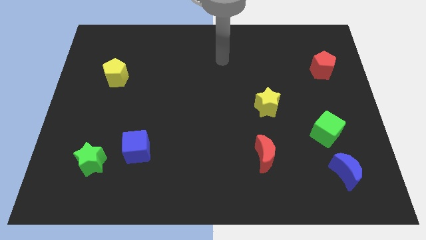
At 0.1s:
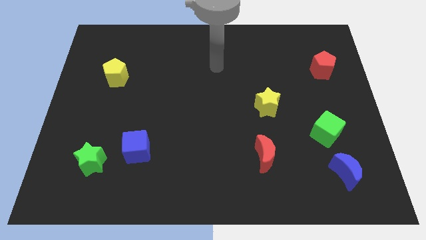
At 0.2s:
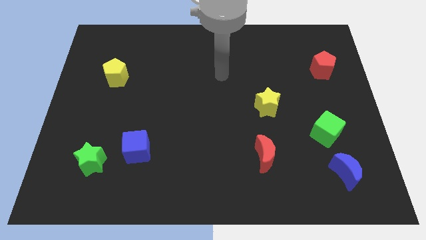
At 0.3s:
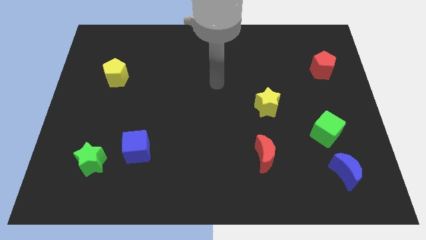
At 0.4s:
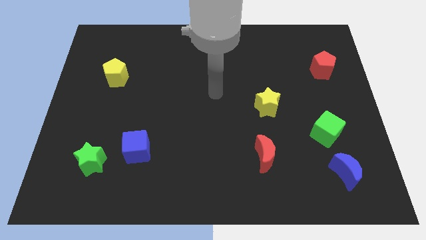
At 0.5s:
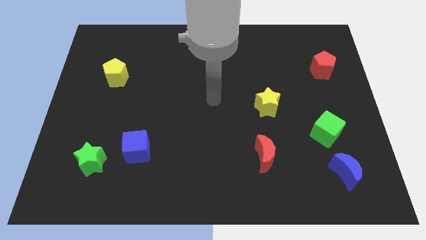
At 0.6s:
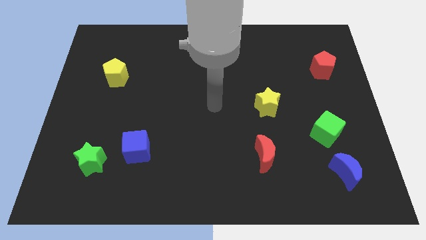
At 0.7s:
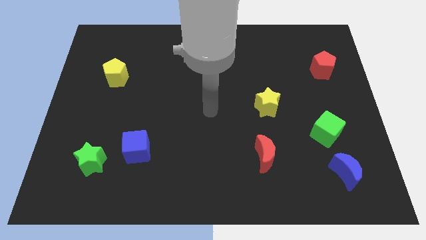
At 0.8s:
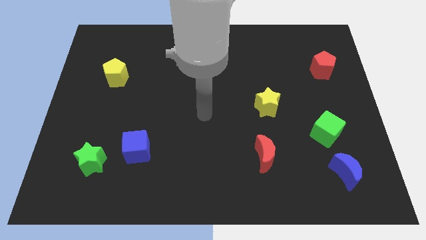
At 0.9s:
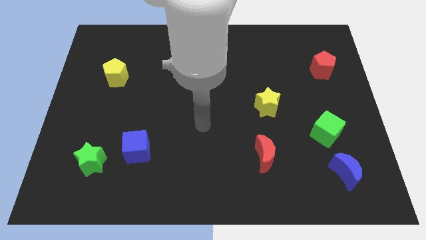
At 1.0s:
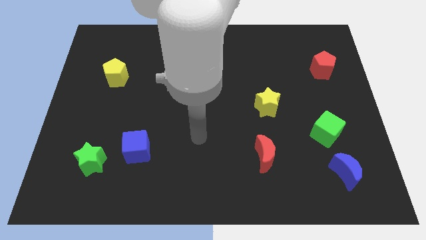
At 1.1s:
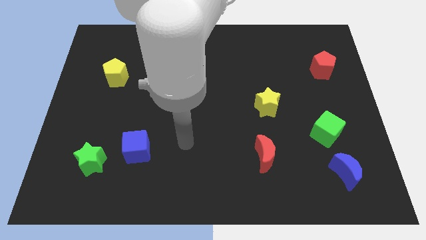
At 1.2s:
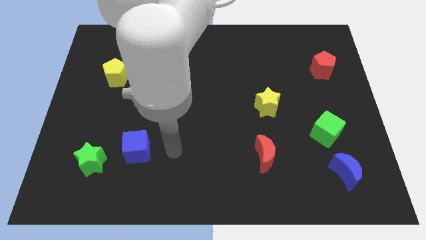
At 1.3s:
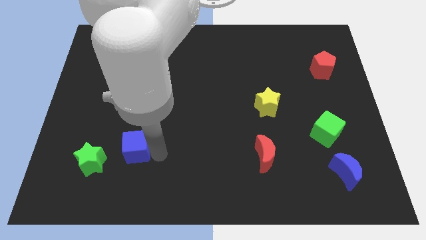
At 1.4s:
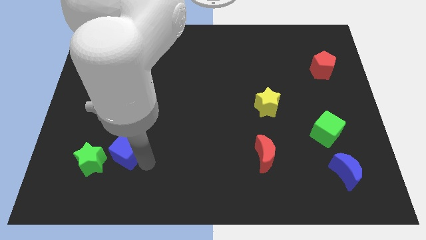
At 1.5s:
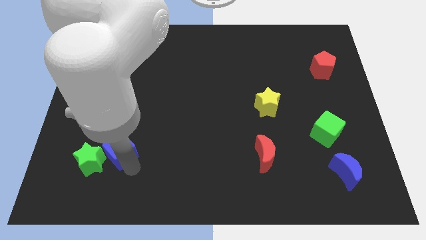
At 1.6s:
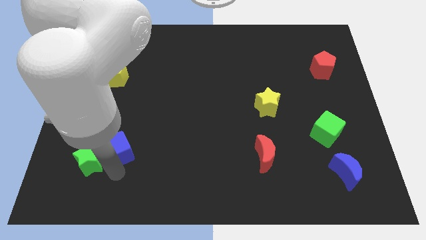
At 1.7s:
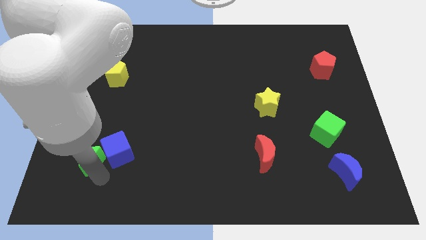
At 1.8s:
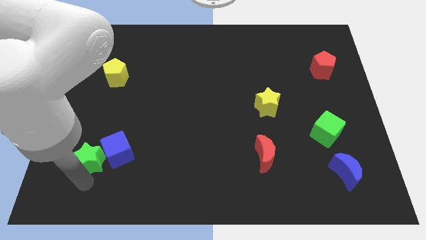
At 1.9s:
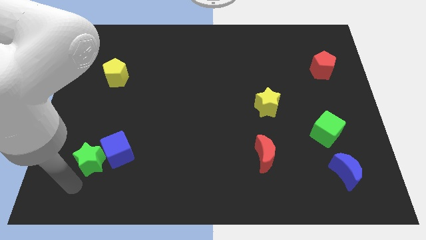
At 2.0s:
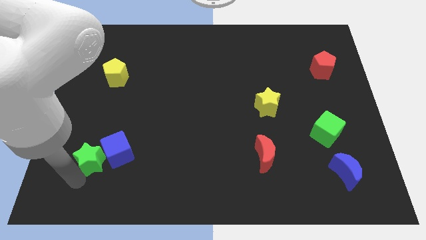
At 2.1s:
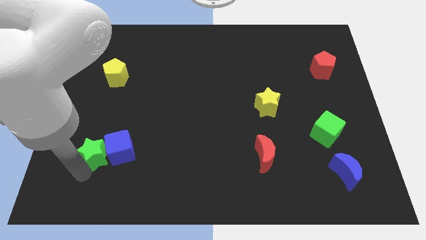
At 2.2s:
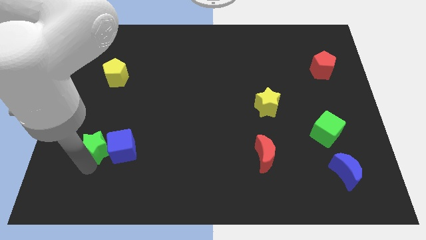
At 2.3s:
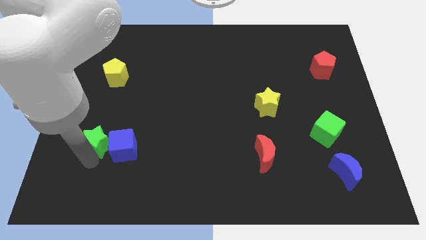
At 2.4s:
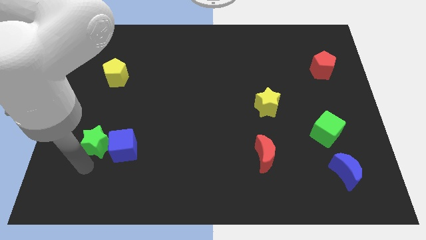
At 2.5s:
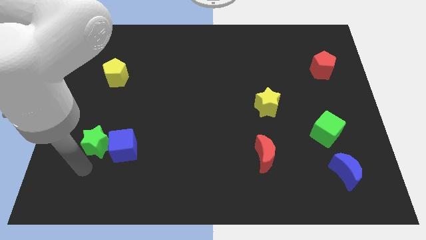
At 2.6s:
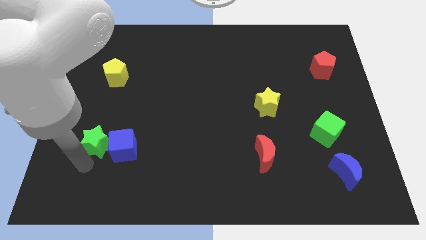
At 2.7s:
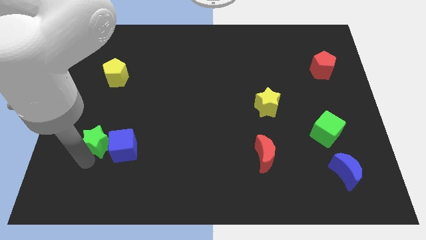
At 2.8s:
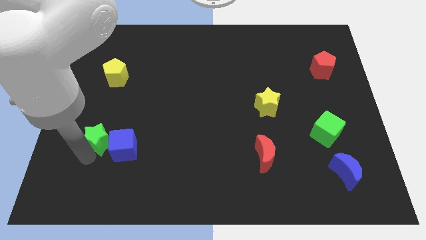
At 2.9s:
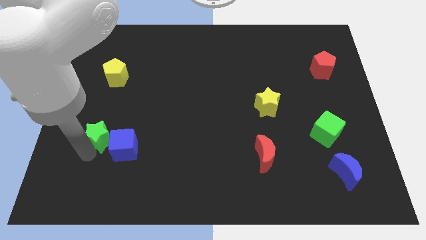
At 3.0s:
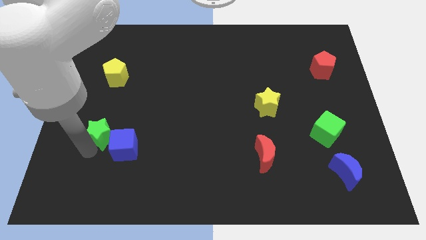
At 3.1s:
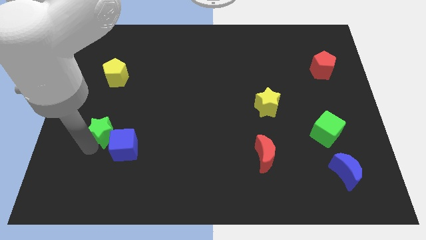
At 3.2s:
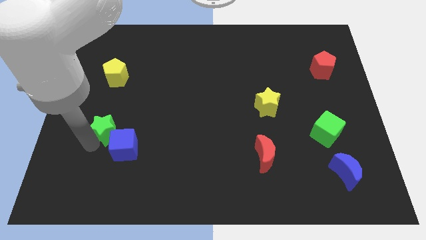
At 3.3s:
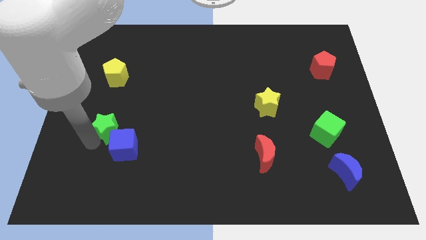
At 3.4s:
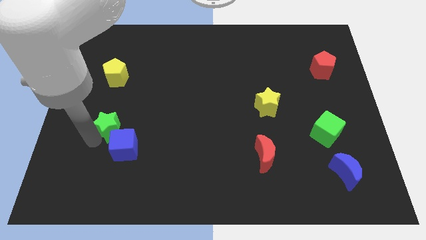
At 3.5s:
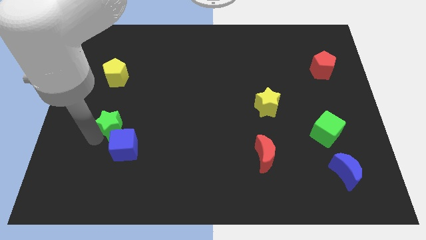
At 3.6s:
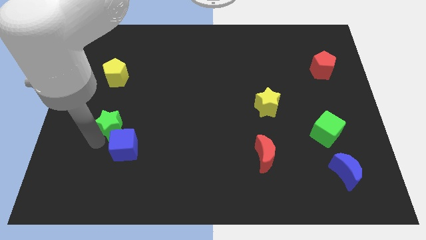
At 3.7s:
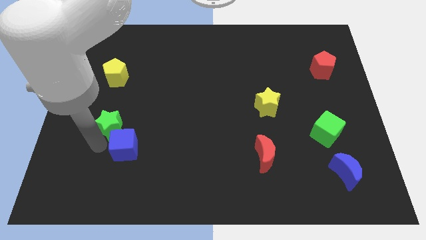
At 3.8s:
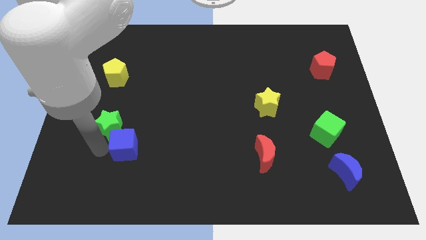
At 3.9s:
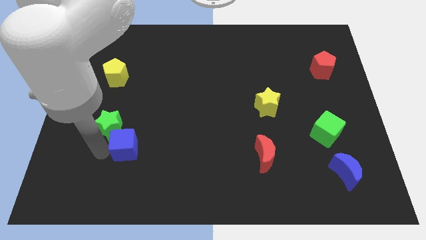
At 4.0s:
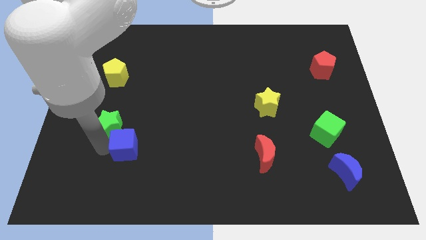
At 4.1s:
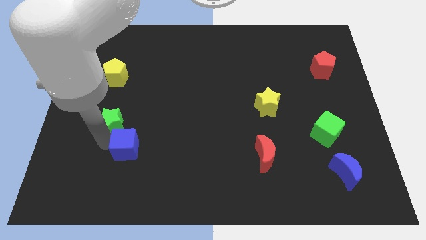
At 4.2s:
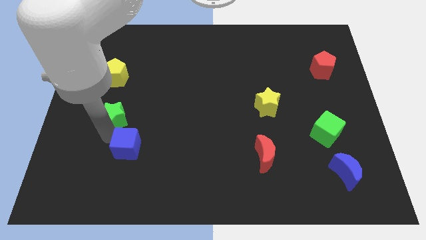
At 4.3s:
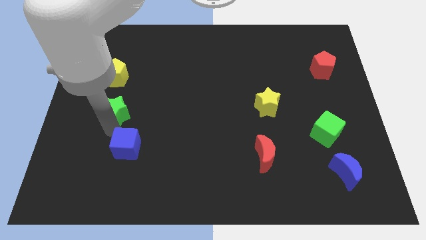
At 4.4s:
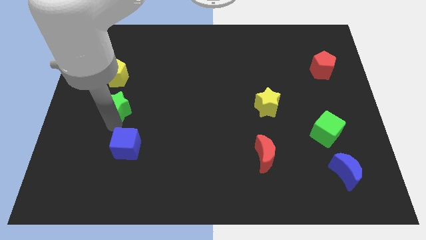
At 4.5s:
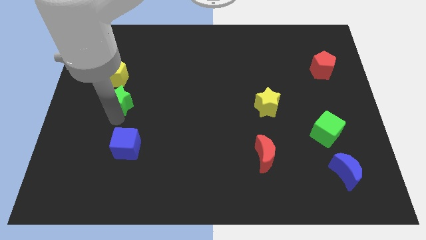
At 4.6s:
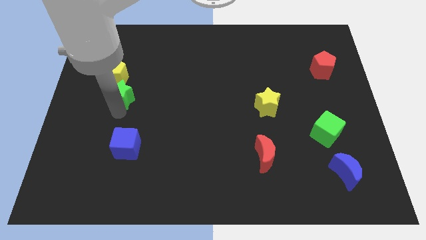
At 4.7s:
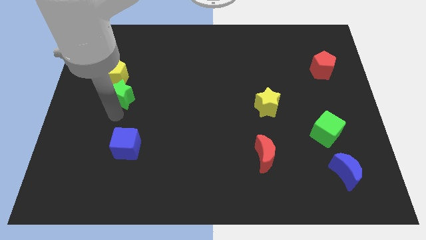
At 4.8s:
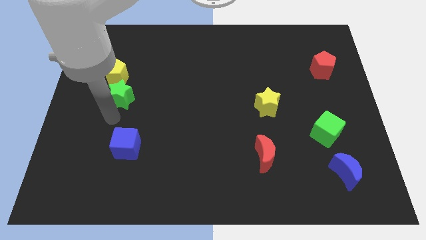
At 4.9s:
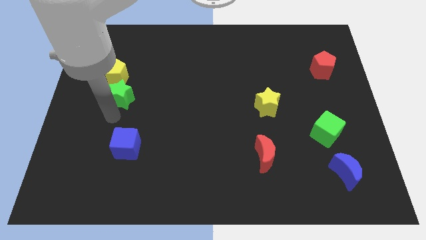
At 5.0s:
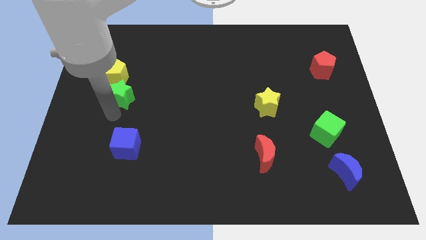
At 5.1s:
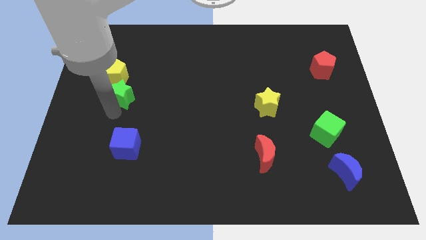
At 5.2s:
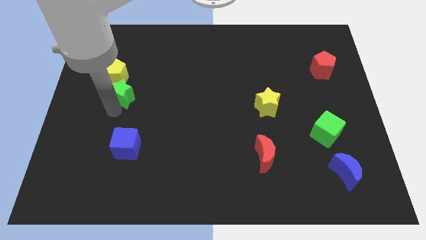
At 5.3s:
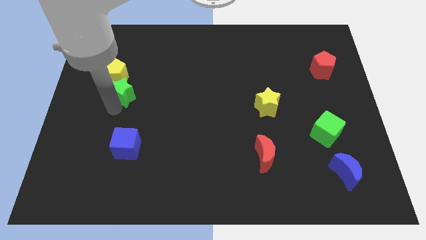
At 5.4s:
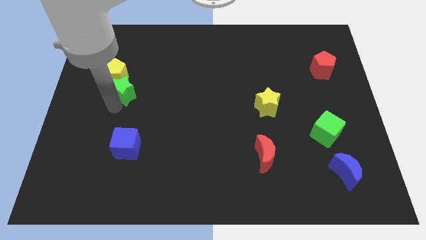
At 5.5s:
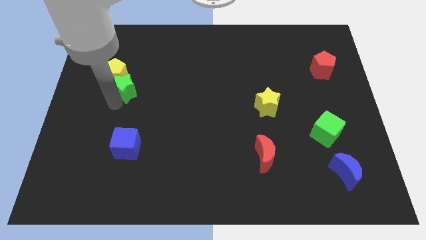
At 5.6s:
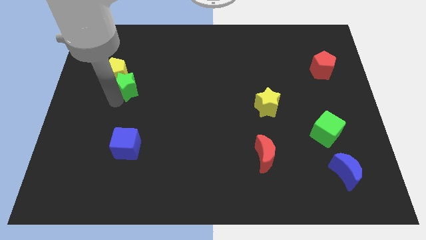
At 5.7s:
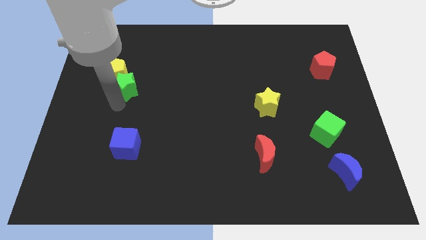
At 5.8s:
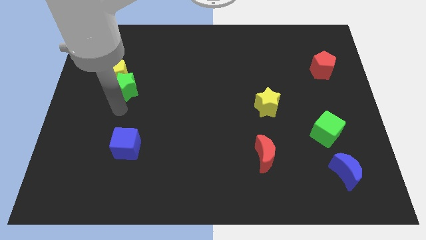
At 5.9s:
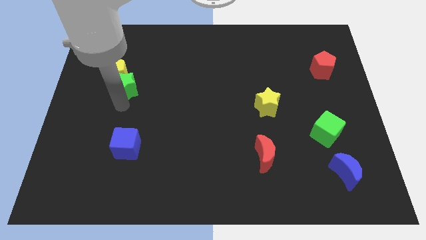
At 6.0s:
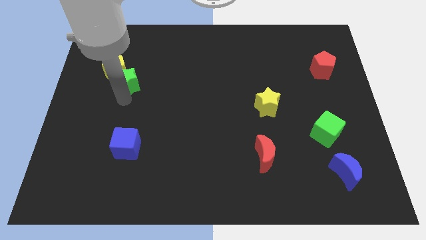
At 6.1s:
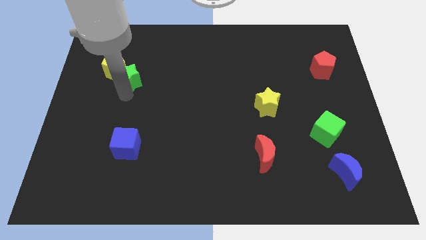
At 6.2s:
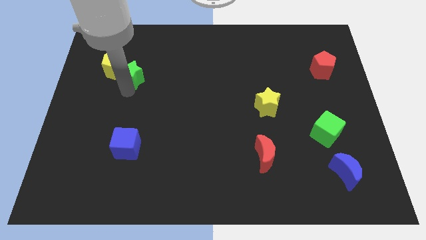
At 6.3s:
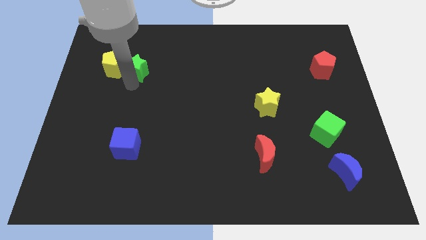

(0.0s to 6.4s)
push the green star to the top right side of the yellow pentagon
